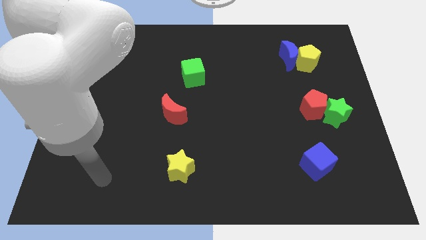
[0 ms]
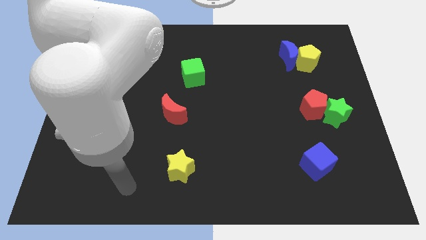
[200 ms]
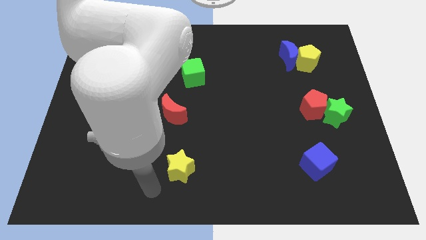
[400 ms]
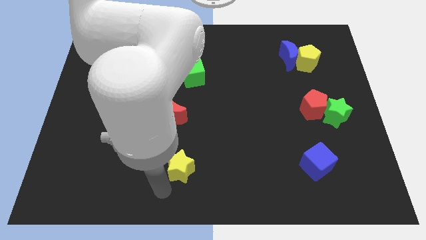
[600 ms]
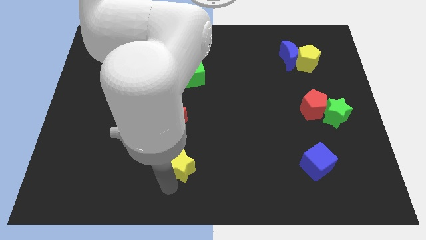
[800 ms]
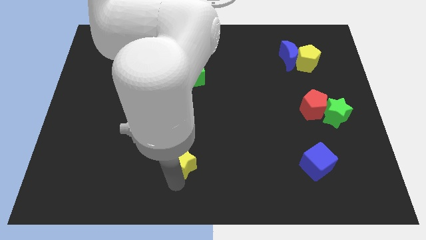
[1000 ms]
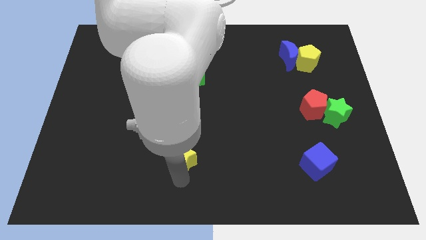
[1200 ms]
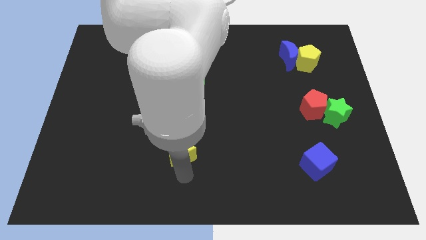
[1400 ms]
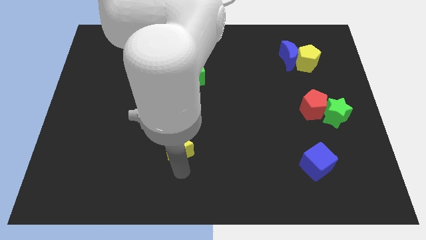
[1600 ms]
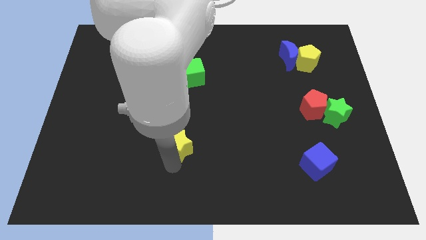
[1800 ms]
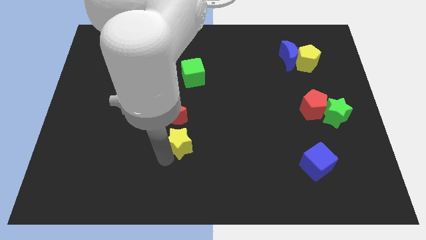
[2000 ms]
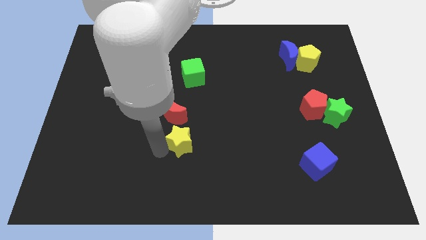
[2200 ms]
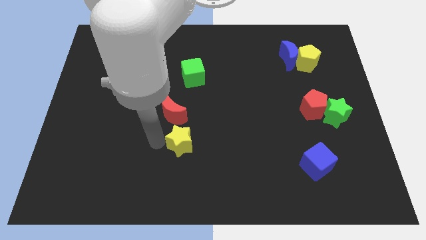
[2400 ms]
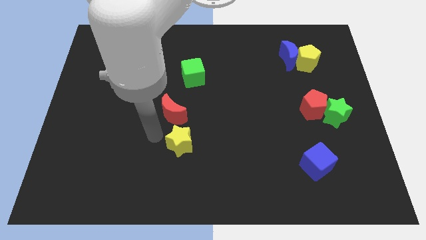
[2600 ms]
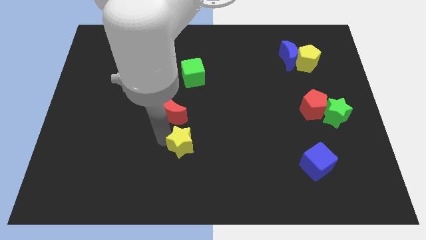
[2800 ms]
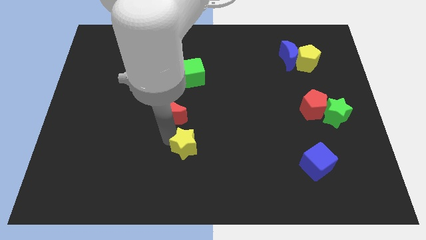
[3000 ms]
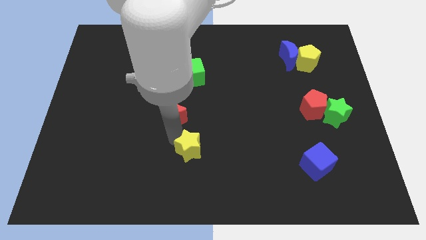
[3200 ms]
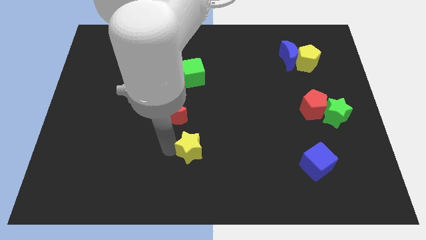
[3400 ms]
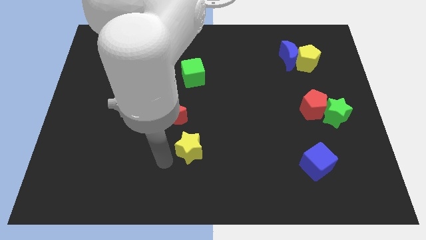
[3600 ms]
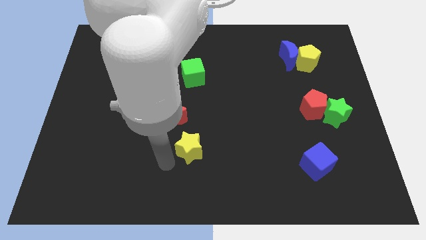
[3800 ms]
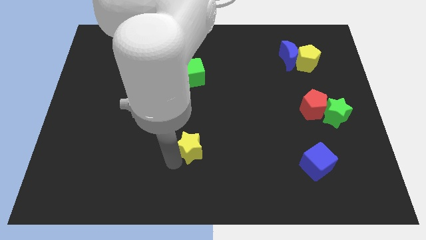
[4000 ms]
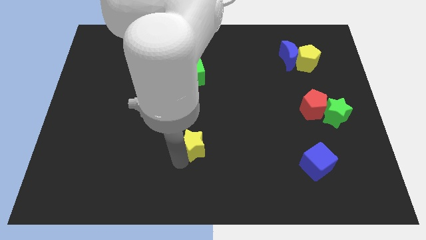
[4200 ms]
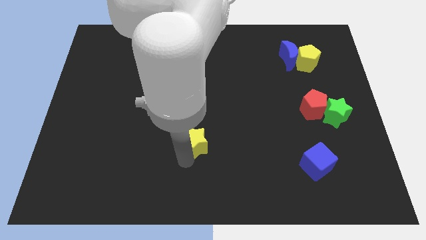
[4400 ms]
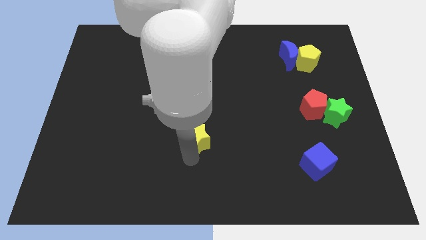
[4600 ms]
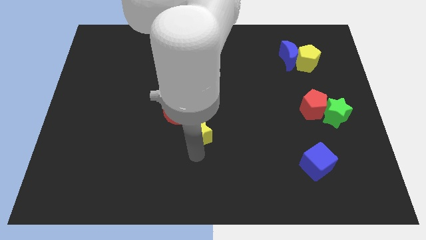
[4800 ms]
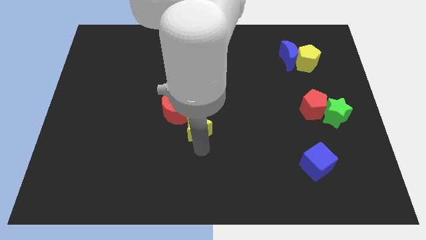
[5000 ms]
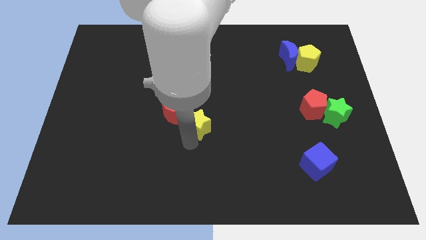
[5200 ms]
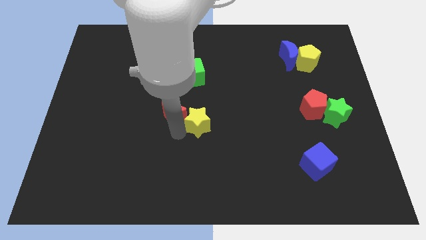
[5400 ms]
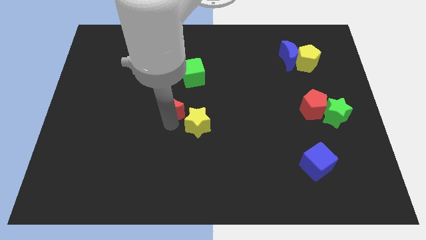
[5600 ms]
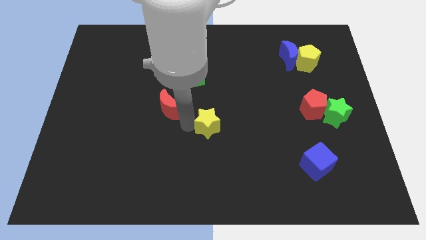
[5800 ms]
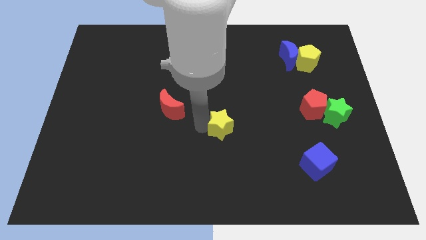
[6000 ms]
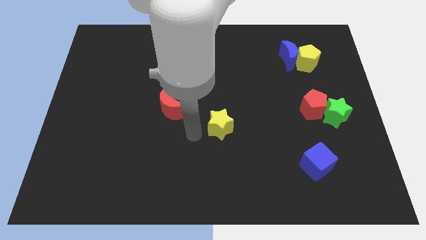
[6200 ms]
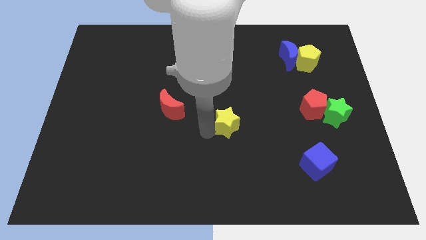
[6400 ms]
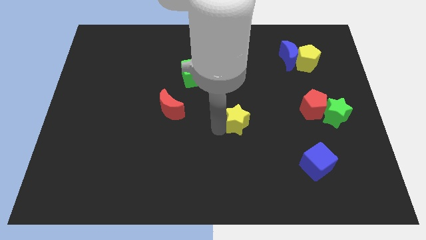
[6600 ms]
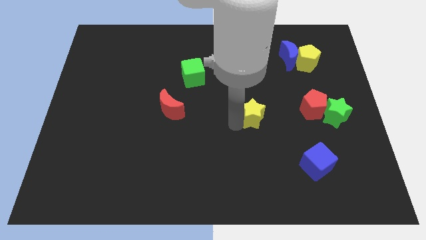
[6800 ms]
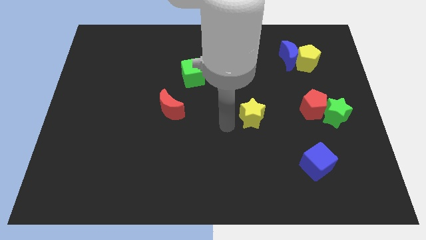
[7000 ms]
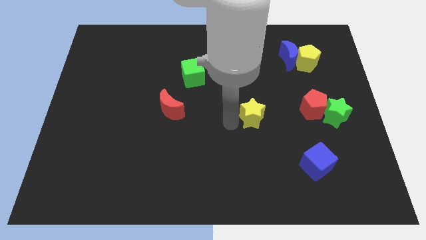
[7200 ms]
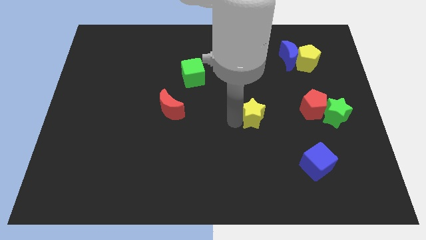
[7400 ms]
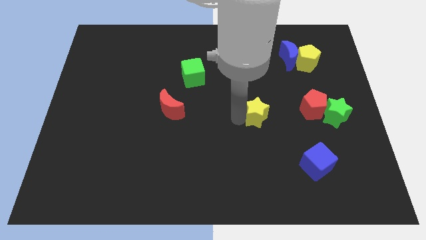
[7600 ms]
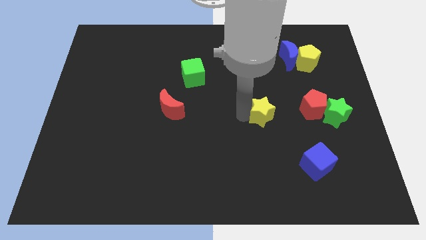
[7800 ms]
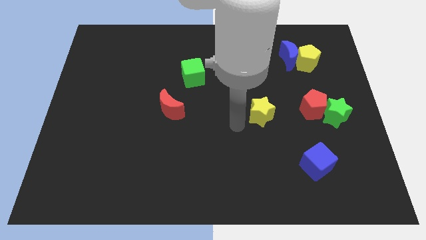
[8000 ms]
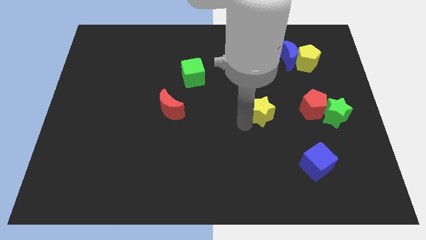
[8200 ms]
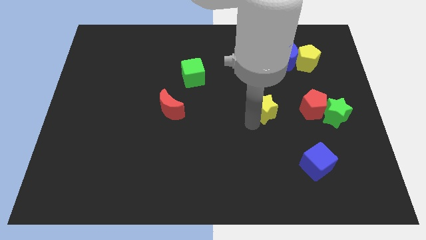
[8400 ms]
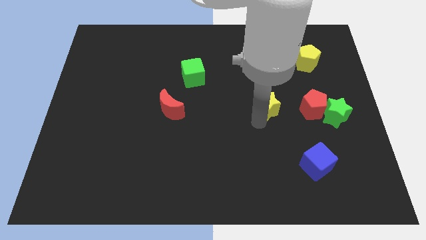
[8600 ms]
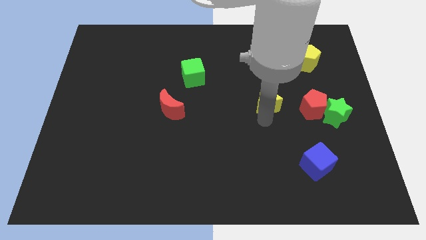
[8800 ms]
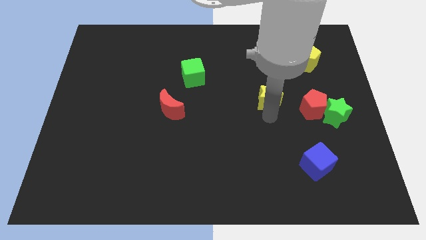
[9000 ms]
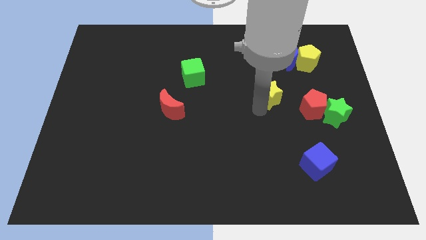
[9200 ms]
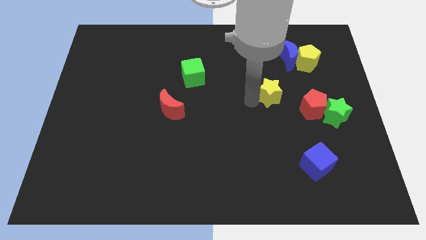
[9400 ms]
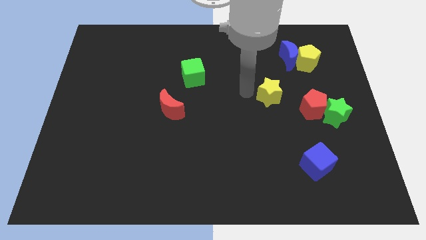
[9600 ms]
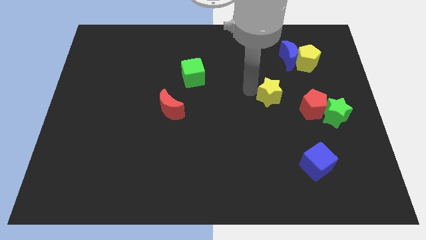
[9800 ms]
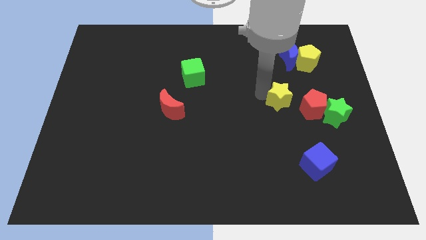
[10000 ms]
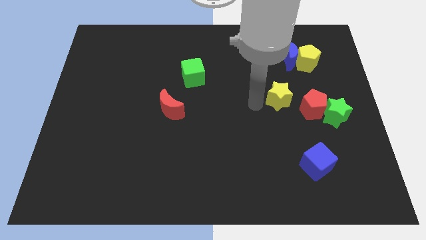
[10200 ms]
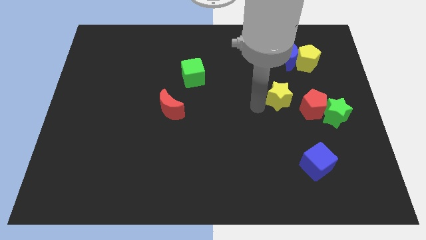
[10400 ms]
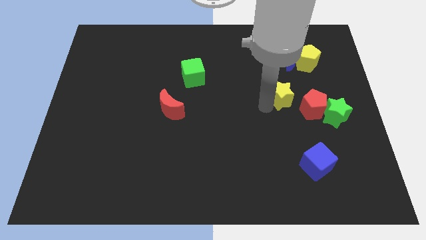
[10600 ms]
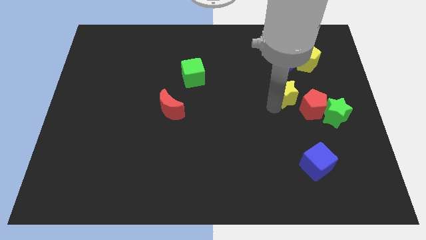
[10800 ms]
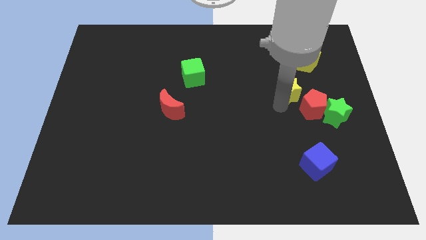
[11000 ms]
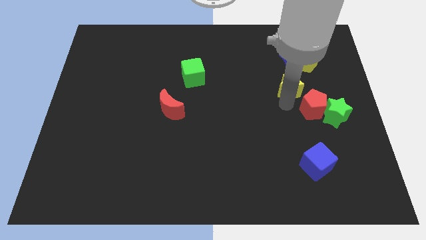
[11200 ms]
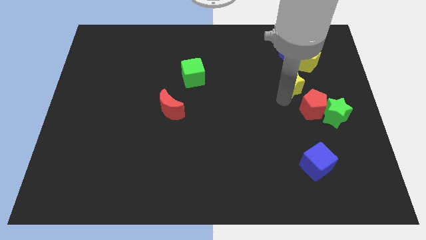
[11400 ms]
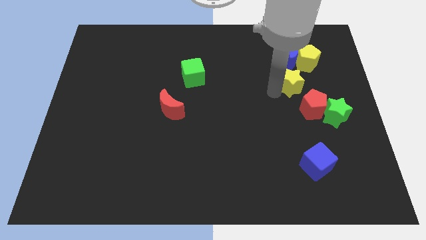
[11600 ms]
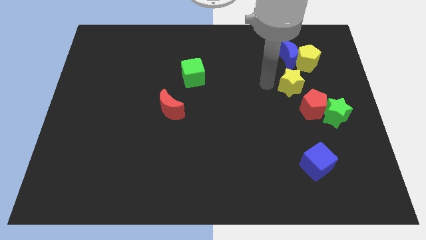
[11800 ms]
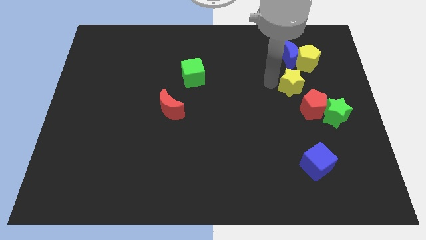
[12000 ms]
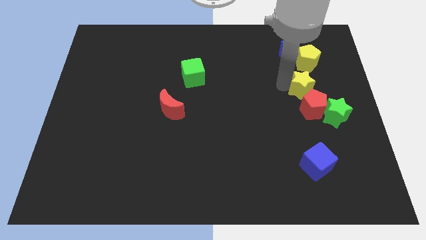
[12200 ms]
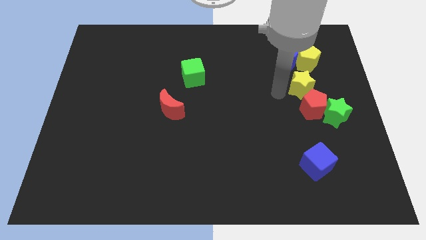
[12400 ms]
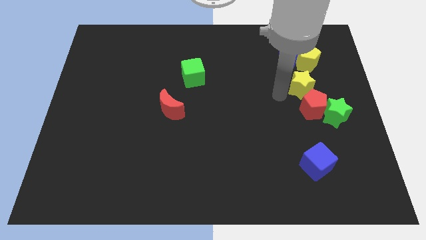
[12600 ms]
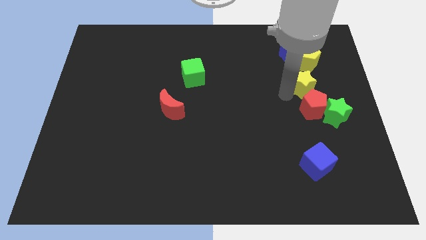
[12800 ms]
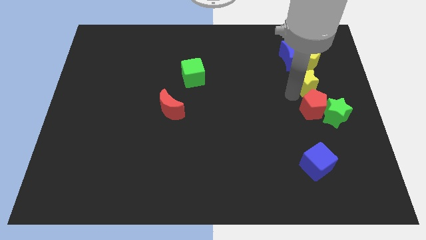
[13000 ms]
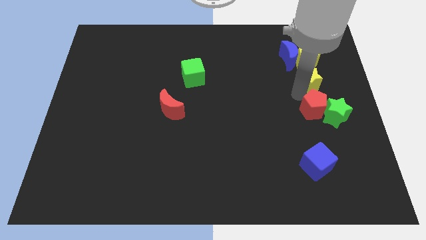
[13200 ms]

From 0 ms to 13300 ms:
move the yellow star to the top of the green star

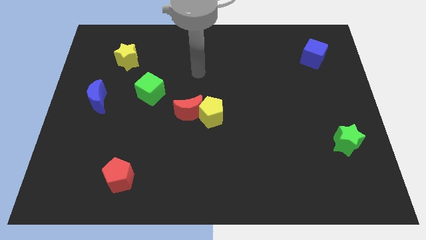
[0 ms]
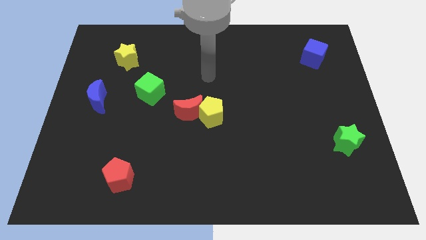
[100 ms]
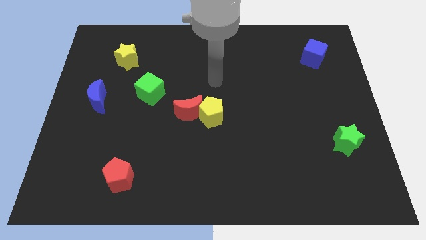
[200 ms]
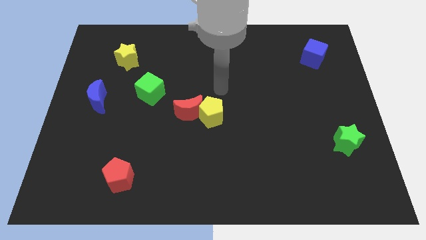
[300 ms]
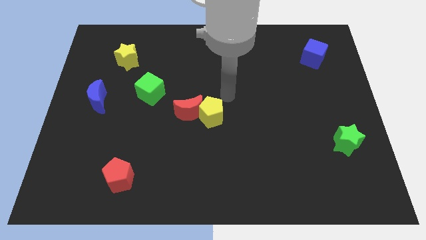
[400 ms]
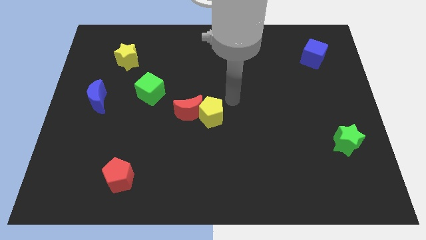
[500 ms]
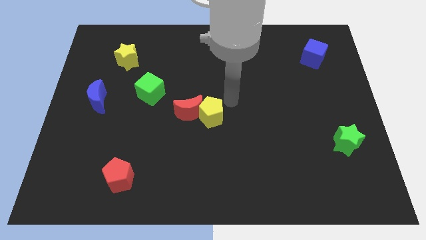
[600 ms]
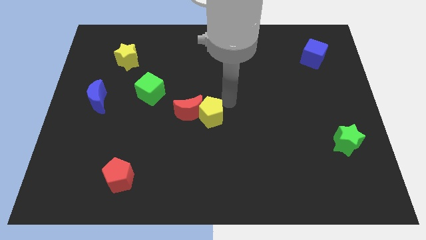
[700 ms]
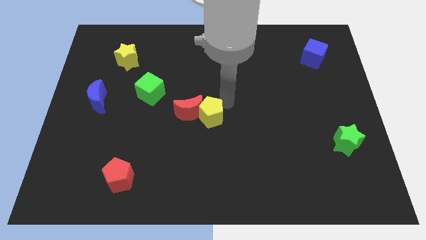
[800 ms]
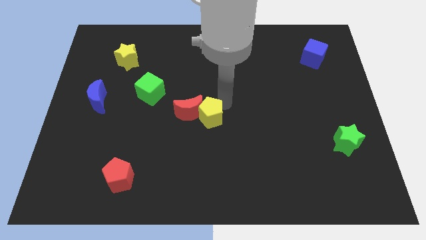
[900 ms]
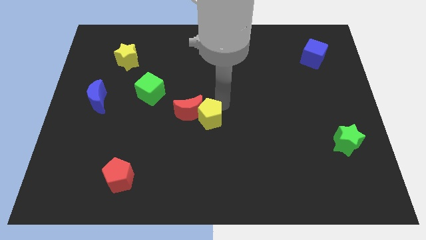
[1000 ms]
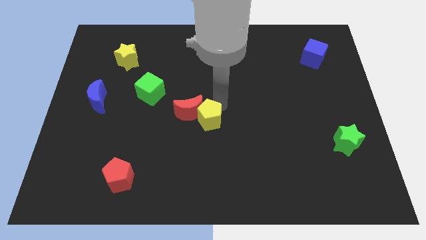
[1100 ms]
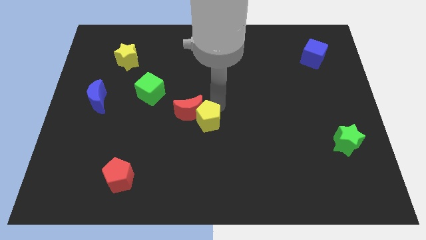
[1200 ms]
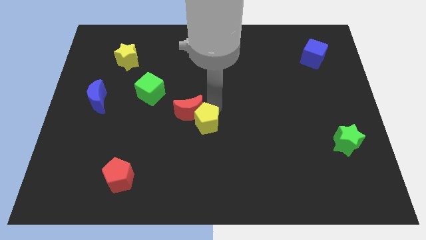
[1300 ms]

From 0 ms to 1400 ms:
slide the yellow pentagon below the red moon
